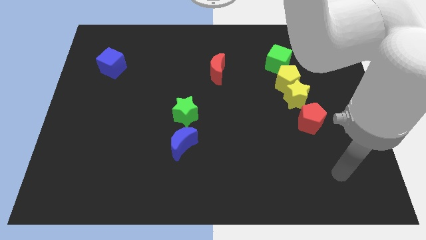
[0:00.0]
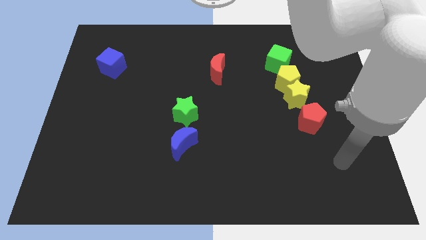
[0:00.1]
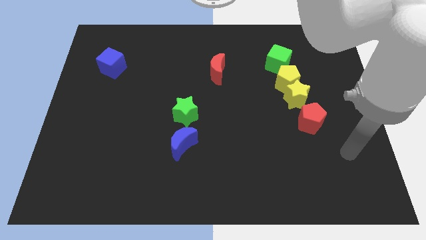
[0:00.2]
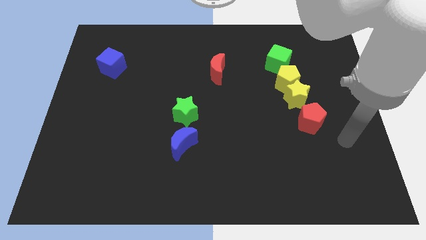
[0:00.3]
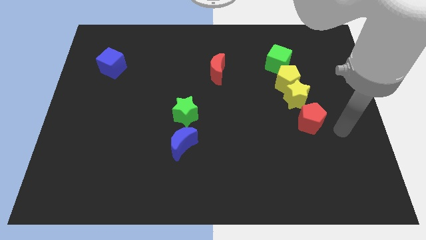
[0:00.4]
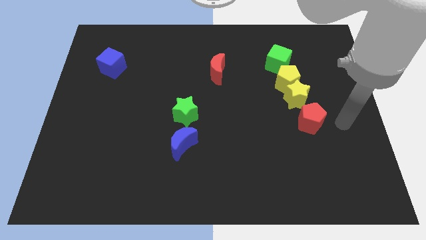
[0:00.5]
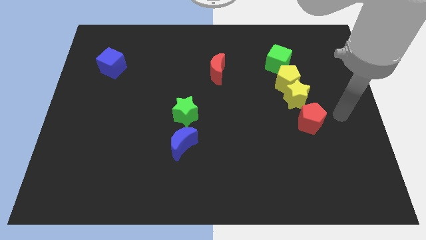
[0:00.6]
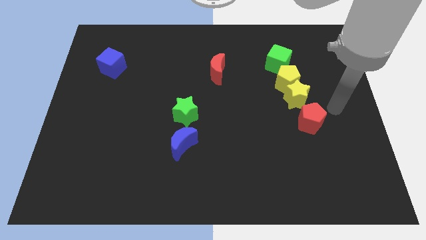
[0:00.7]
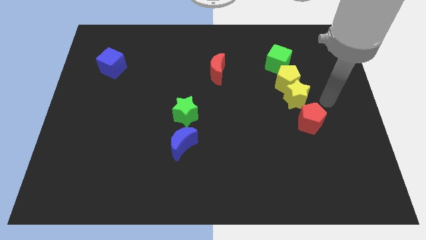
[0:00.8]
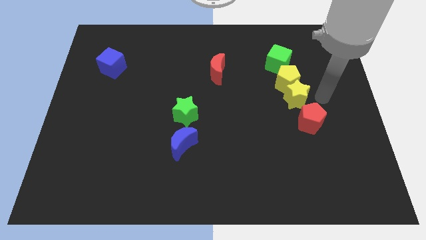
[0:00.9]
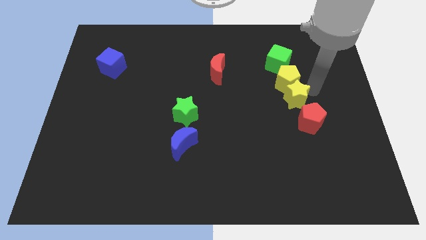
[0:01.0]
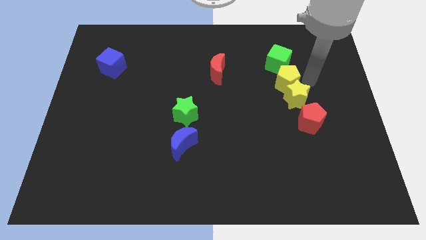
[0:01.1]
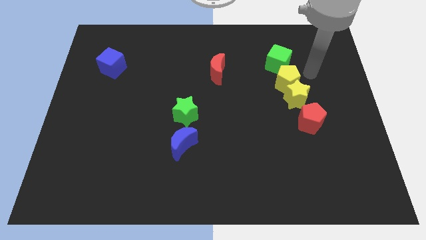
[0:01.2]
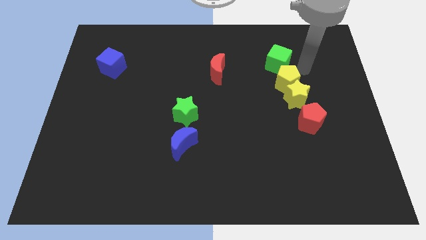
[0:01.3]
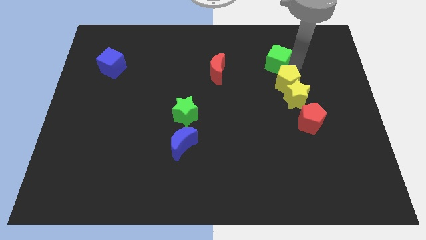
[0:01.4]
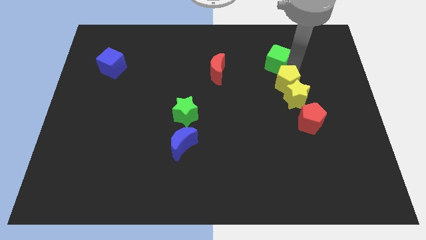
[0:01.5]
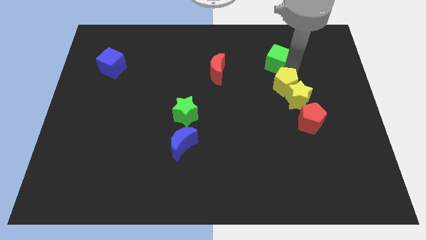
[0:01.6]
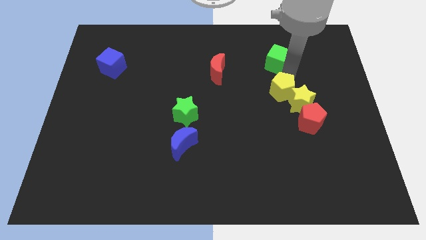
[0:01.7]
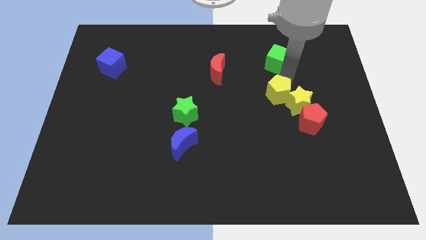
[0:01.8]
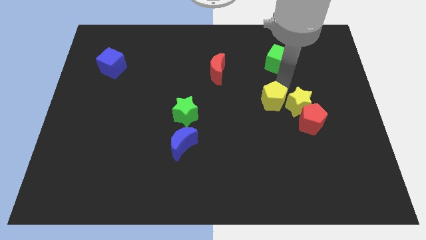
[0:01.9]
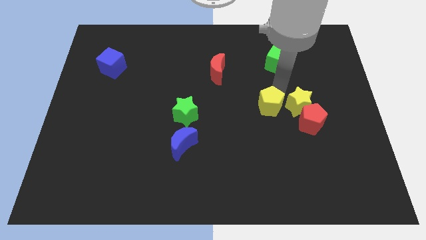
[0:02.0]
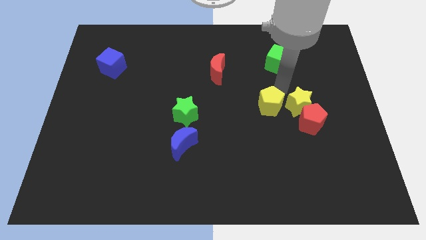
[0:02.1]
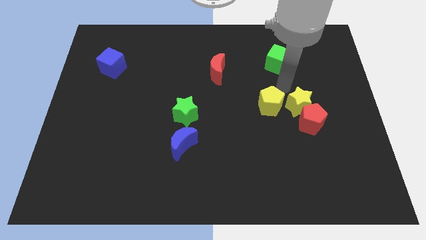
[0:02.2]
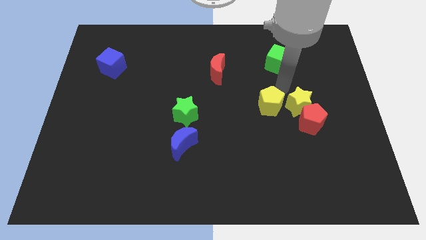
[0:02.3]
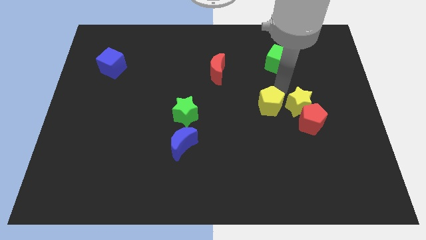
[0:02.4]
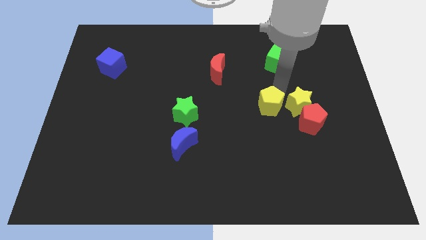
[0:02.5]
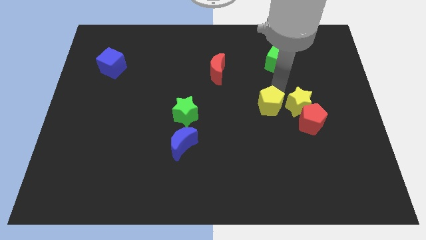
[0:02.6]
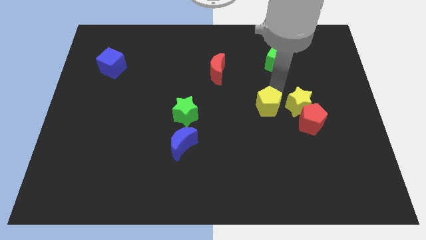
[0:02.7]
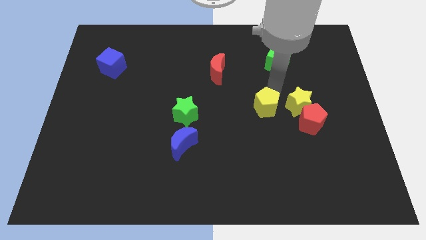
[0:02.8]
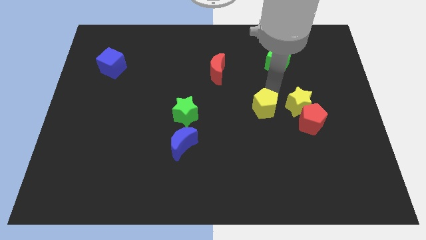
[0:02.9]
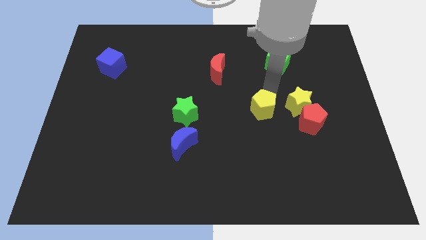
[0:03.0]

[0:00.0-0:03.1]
separate the yellow pentagon from the yellow star and green cube

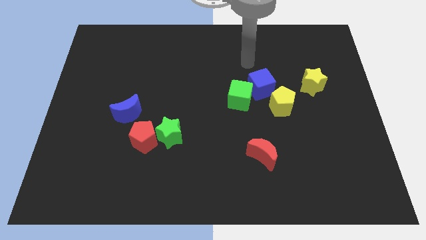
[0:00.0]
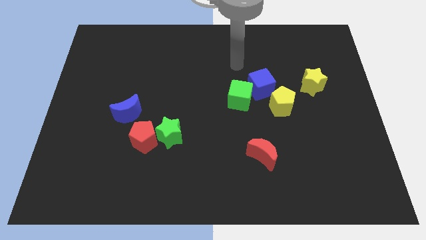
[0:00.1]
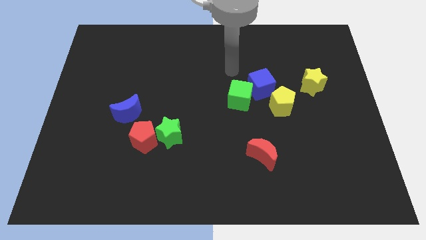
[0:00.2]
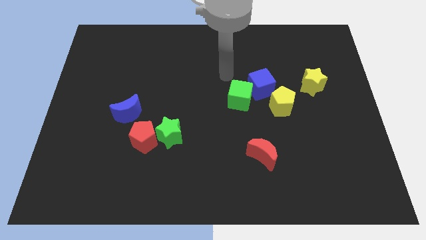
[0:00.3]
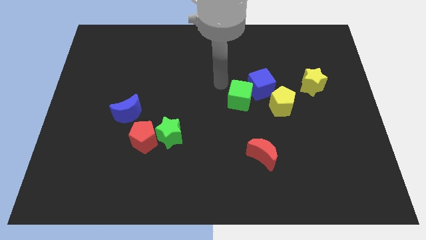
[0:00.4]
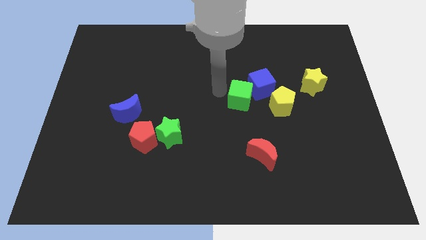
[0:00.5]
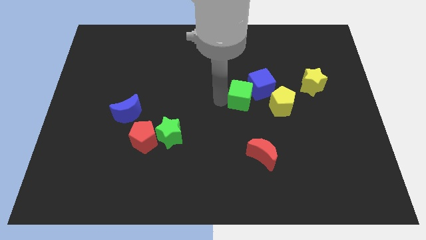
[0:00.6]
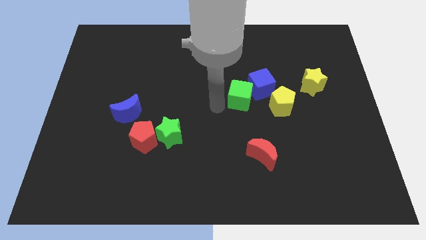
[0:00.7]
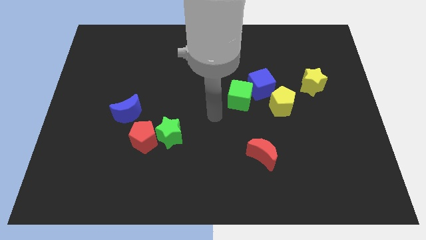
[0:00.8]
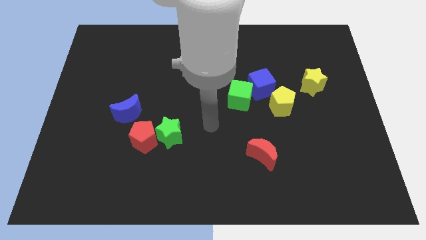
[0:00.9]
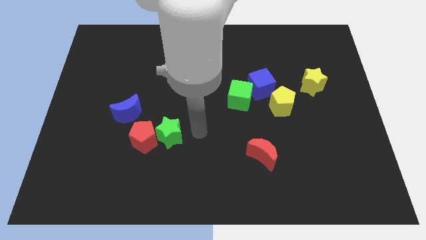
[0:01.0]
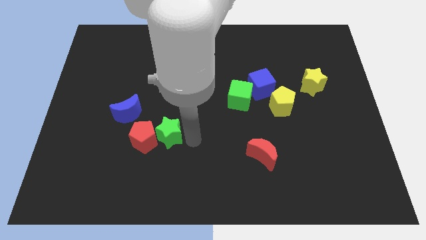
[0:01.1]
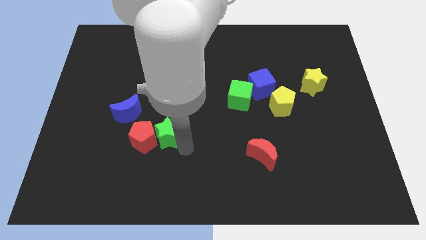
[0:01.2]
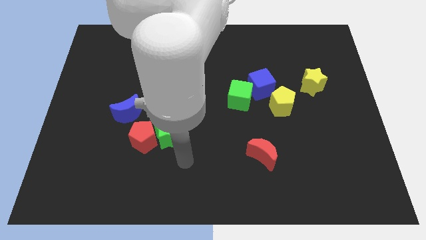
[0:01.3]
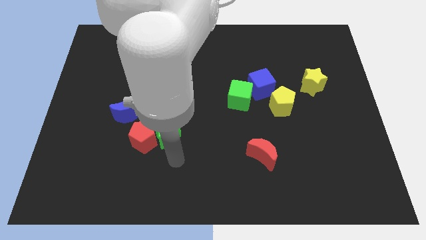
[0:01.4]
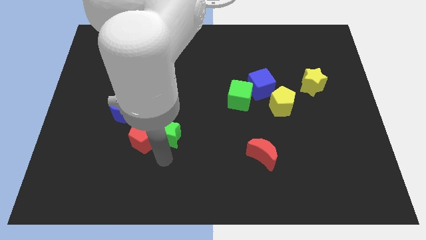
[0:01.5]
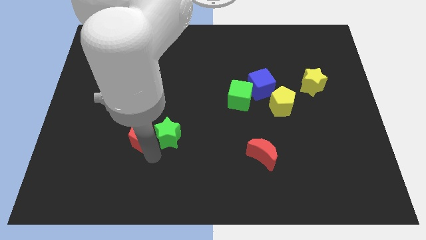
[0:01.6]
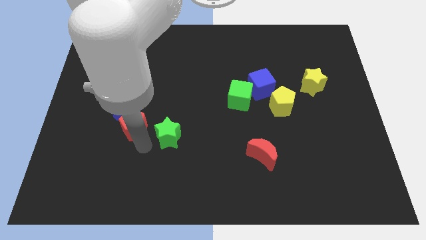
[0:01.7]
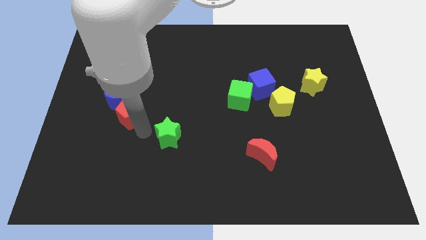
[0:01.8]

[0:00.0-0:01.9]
pull the green star apart from the red pentagon

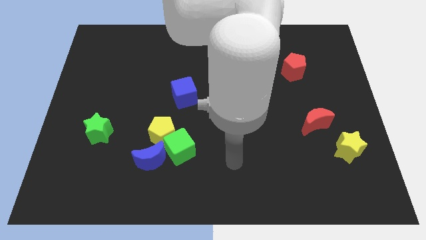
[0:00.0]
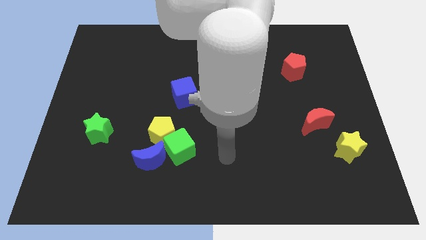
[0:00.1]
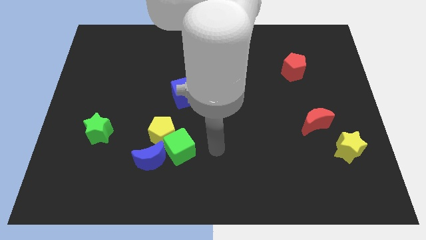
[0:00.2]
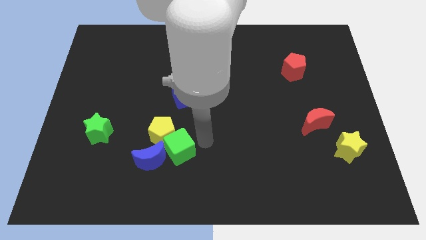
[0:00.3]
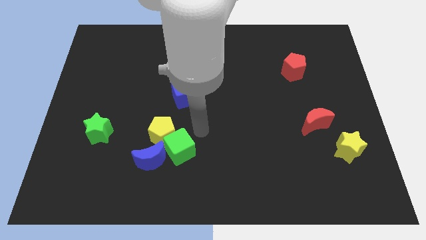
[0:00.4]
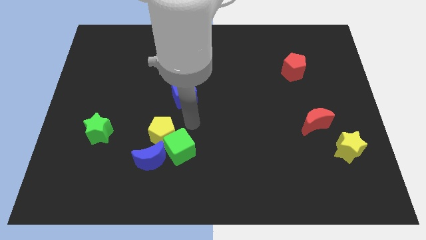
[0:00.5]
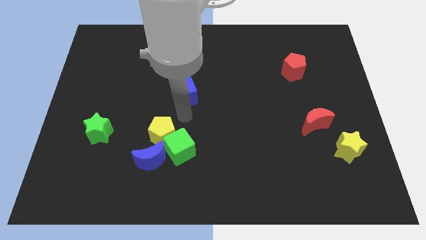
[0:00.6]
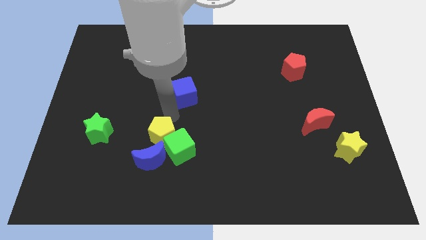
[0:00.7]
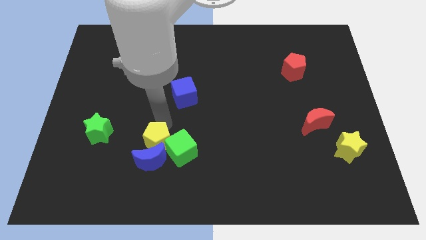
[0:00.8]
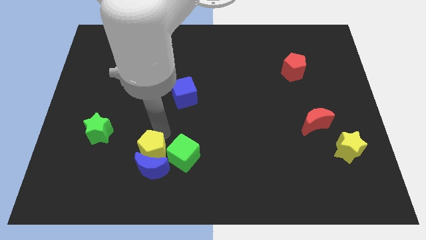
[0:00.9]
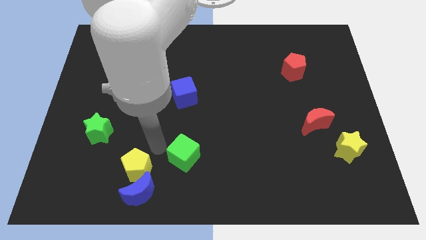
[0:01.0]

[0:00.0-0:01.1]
move the green cube away from the yellow pentagon and blue moon

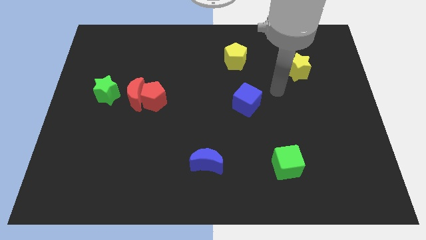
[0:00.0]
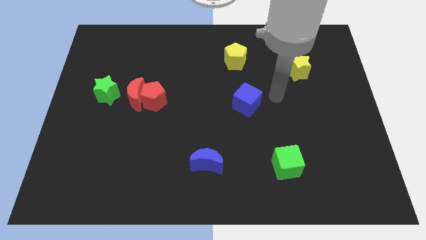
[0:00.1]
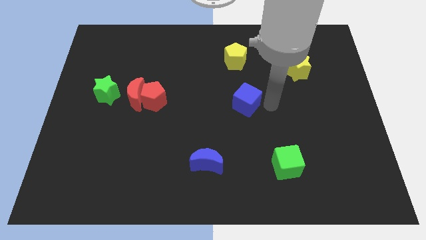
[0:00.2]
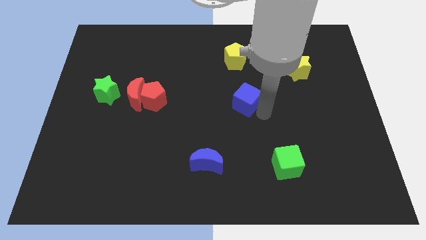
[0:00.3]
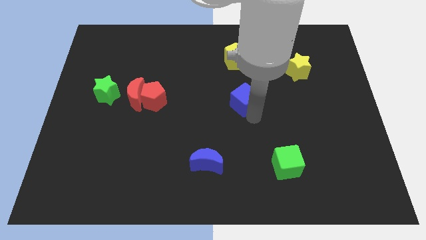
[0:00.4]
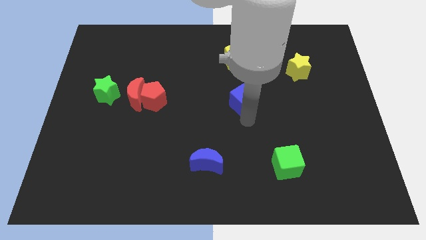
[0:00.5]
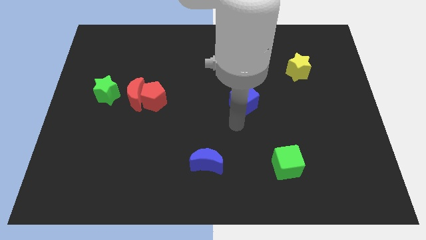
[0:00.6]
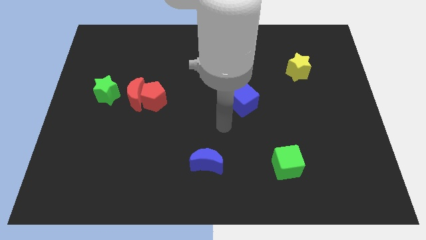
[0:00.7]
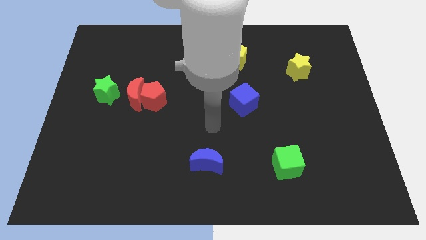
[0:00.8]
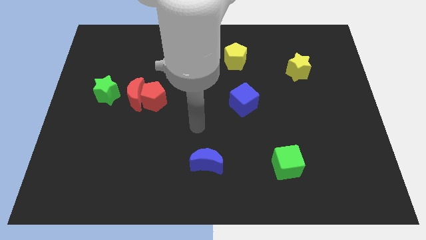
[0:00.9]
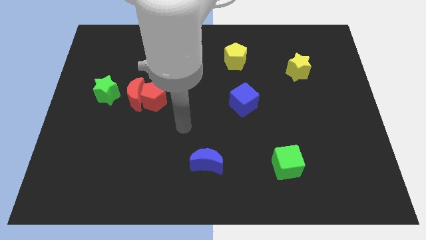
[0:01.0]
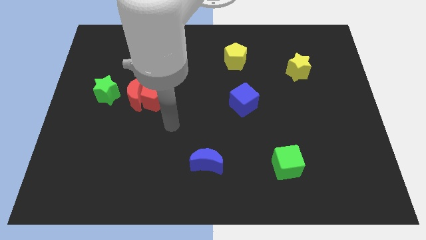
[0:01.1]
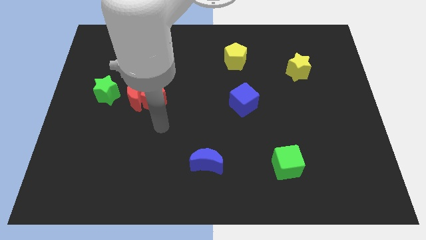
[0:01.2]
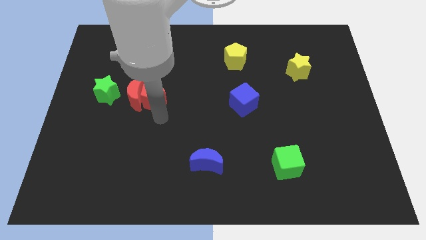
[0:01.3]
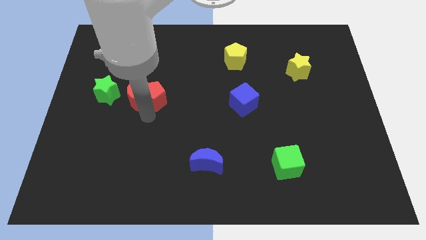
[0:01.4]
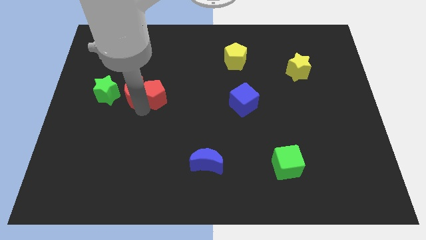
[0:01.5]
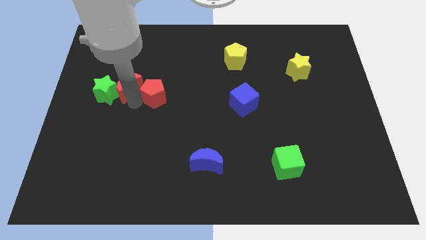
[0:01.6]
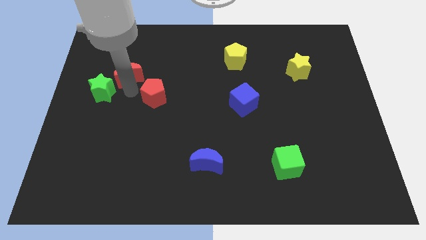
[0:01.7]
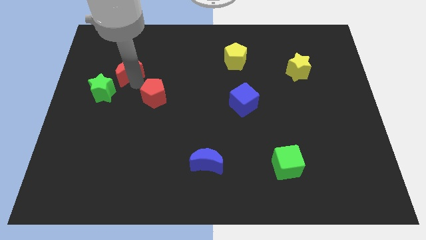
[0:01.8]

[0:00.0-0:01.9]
move the red pentagon away from the red moon

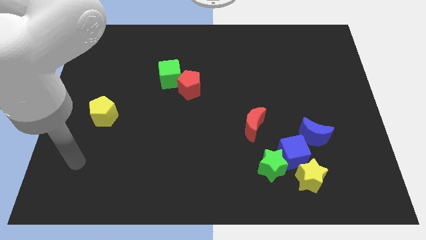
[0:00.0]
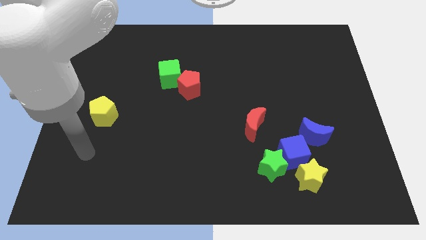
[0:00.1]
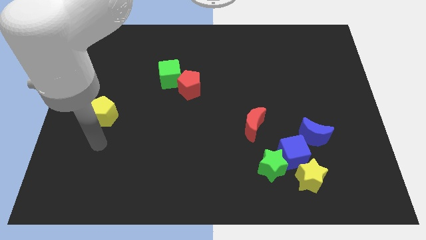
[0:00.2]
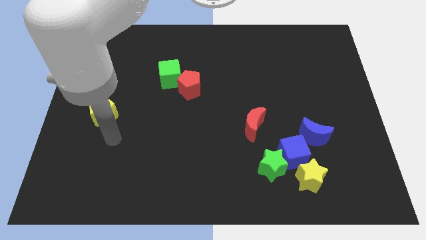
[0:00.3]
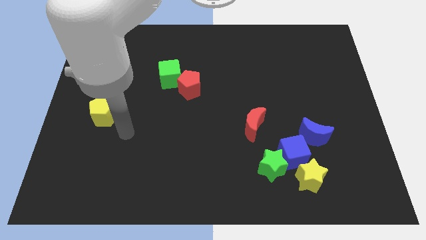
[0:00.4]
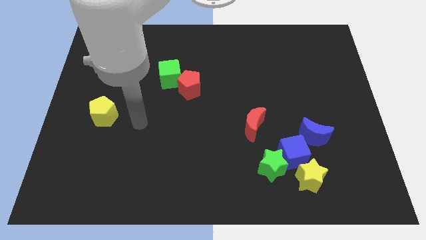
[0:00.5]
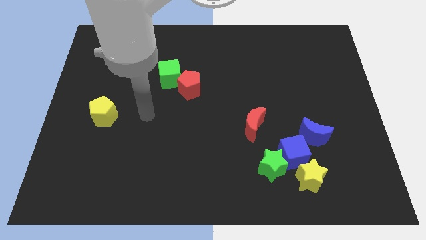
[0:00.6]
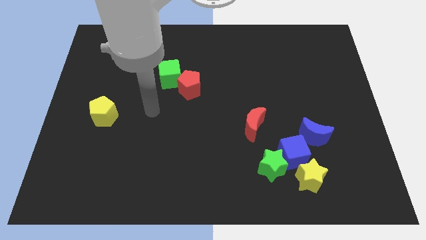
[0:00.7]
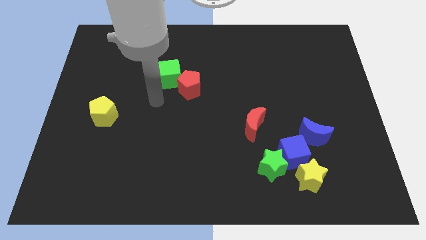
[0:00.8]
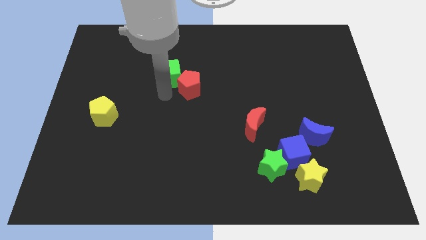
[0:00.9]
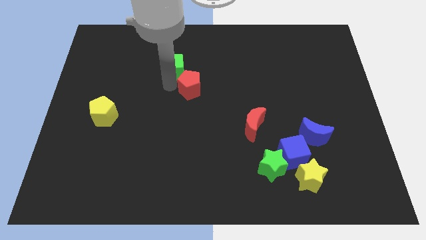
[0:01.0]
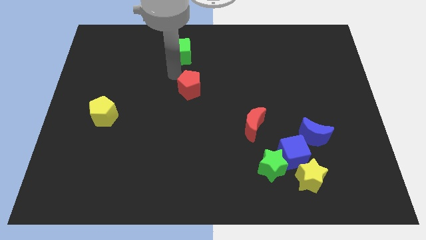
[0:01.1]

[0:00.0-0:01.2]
separate the red pentagon from the green cube
